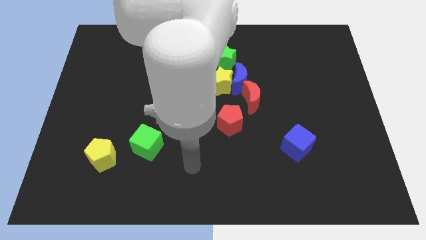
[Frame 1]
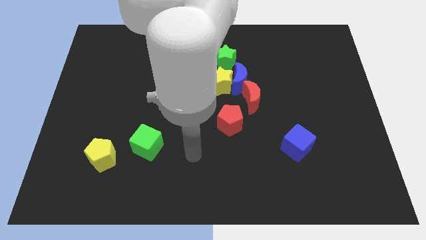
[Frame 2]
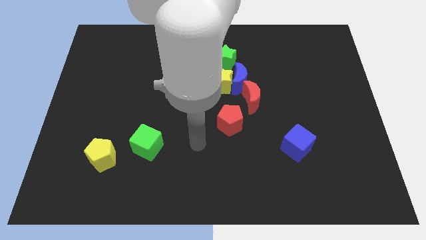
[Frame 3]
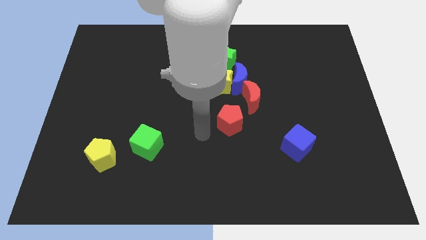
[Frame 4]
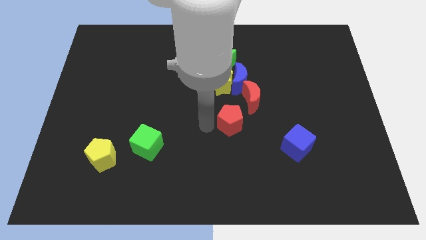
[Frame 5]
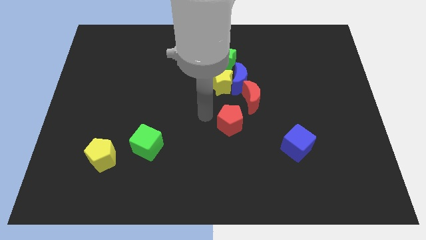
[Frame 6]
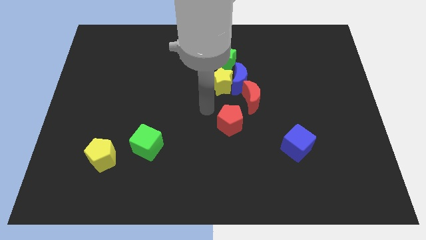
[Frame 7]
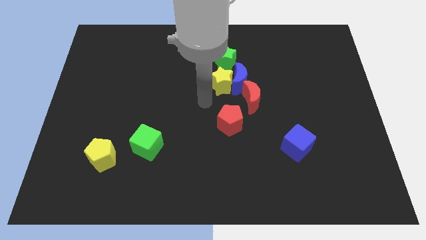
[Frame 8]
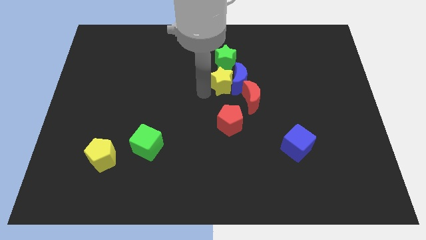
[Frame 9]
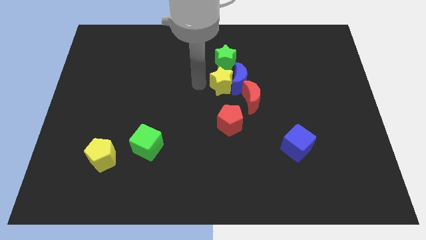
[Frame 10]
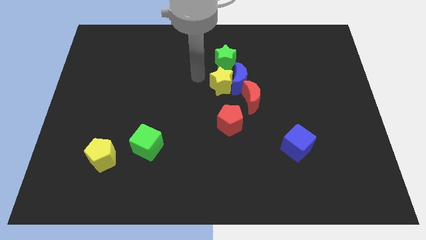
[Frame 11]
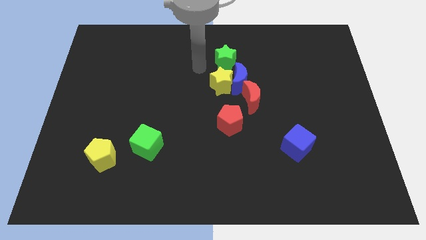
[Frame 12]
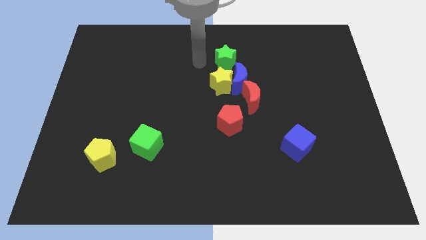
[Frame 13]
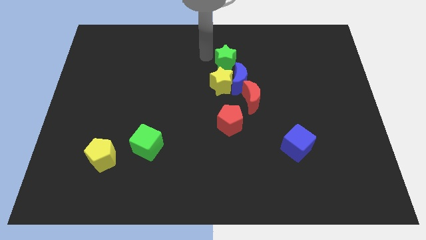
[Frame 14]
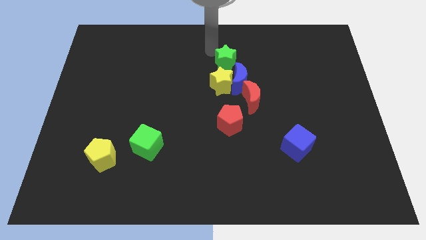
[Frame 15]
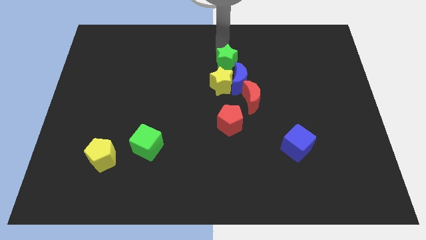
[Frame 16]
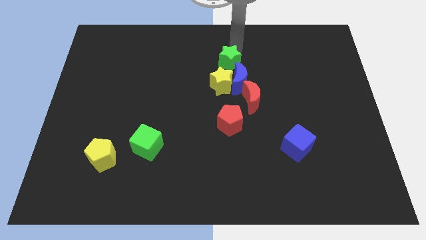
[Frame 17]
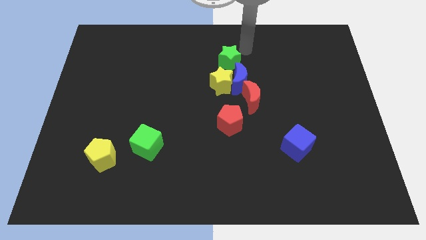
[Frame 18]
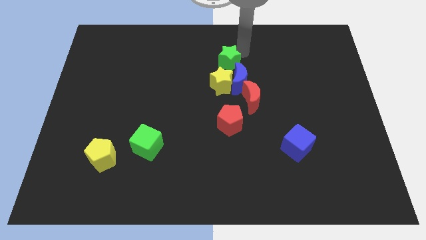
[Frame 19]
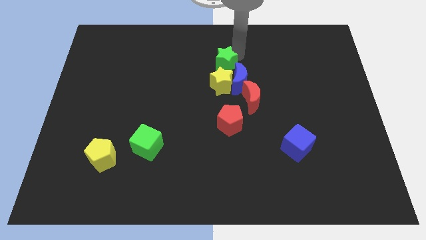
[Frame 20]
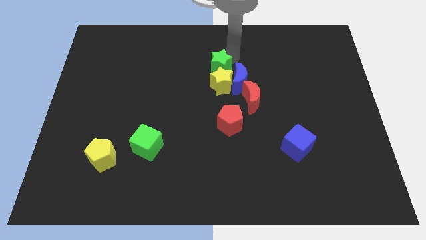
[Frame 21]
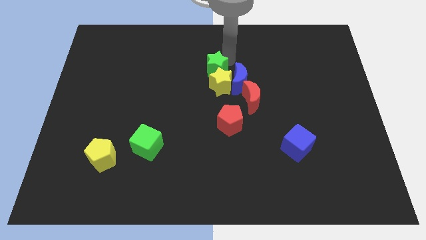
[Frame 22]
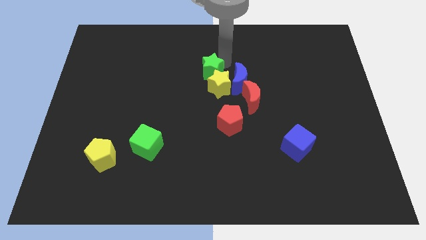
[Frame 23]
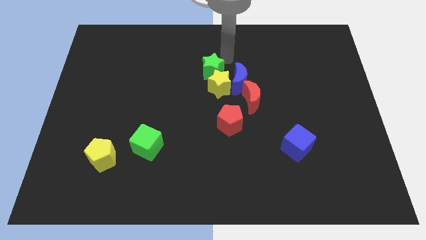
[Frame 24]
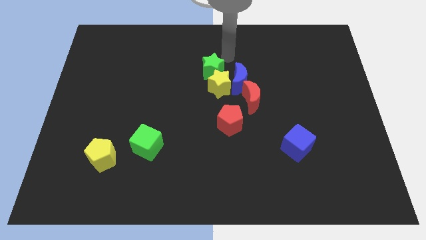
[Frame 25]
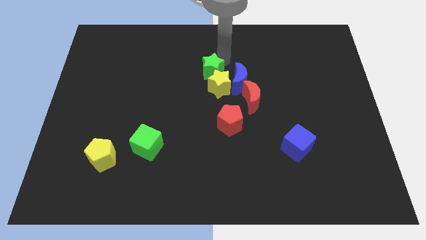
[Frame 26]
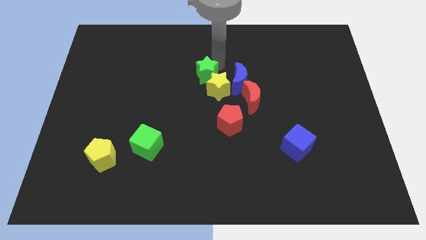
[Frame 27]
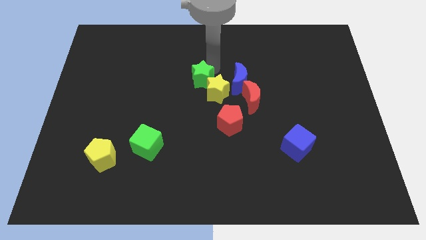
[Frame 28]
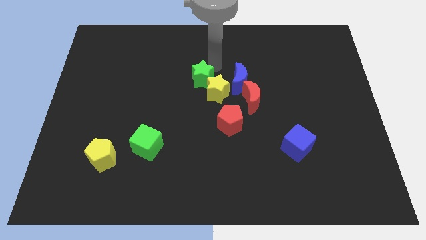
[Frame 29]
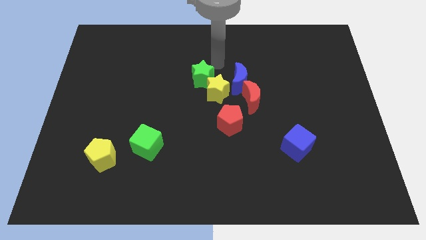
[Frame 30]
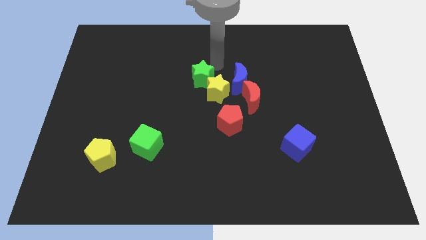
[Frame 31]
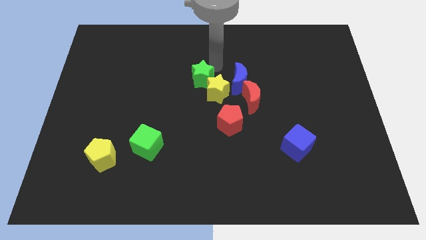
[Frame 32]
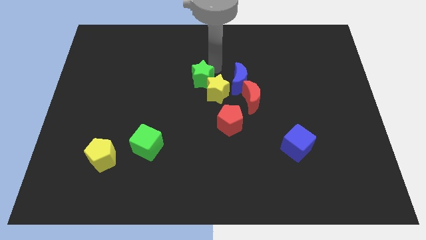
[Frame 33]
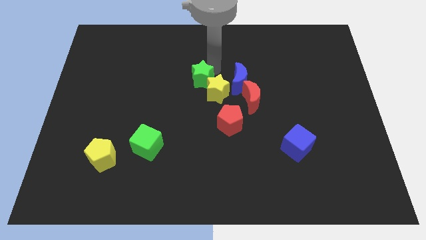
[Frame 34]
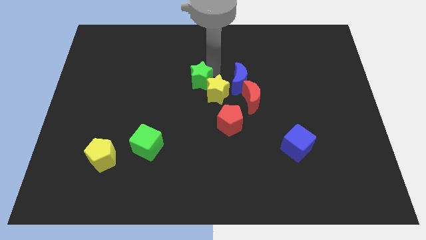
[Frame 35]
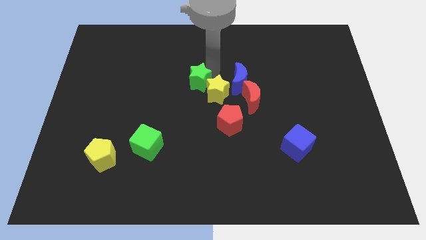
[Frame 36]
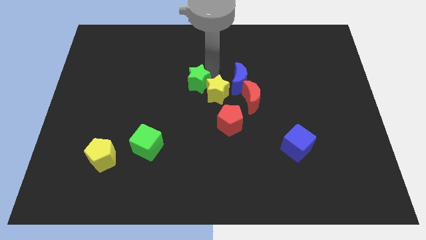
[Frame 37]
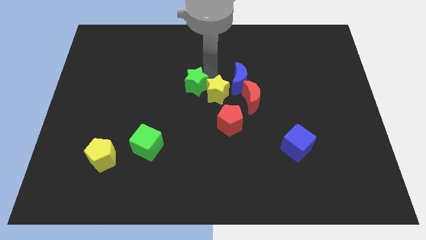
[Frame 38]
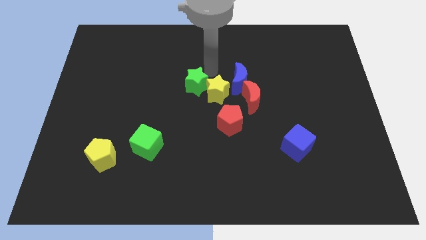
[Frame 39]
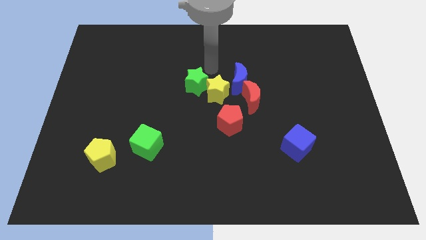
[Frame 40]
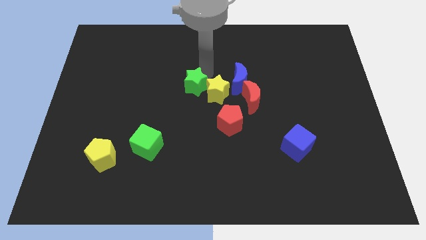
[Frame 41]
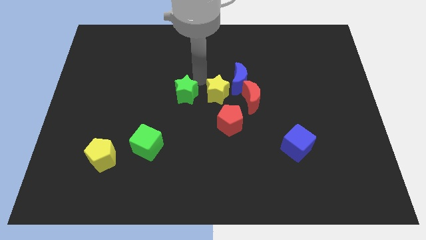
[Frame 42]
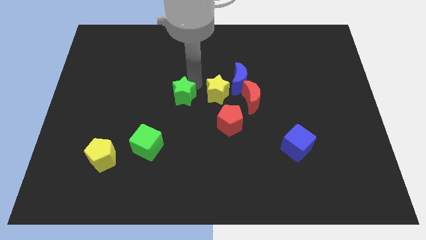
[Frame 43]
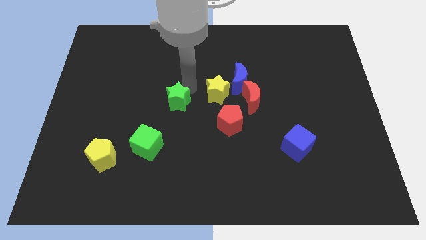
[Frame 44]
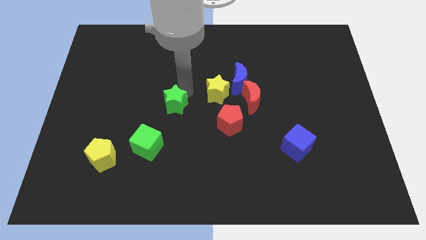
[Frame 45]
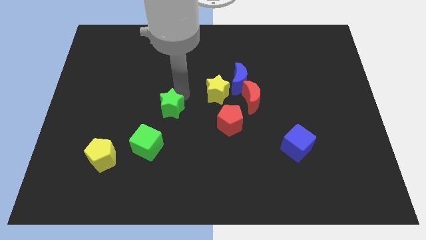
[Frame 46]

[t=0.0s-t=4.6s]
slide the green star downwards and left

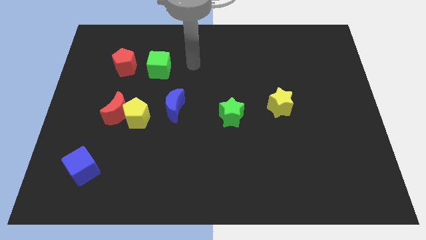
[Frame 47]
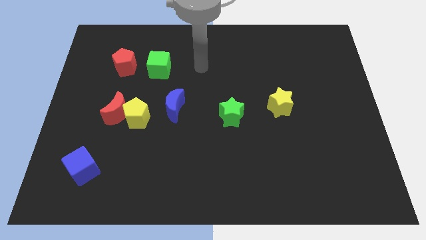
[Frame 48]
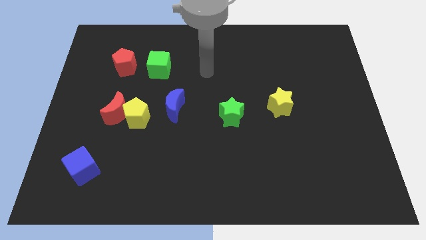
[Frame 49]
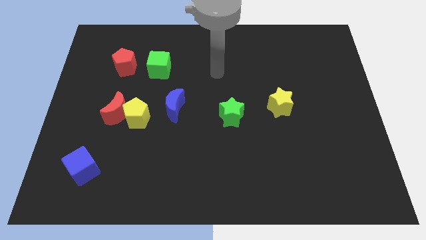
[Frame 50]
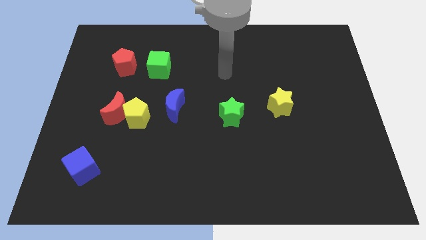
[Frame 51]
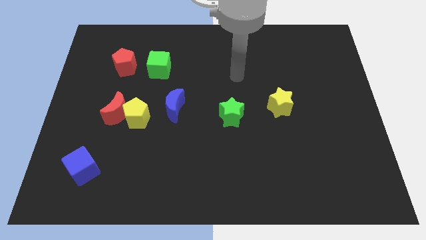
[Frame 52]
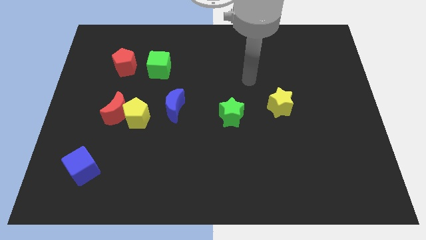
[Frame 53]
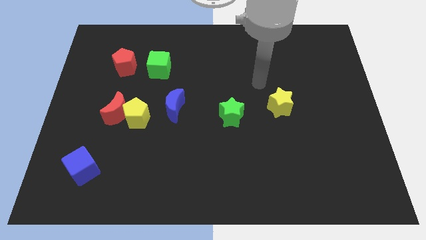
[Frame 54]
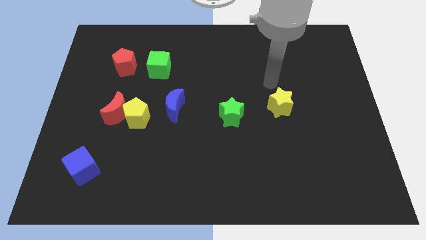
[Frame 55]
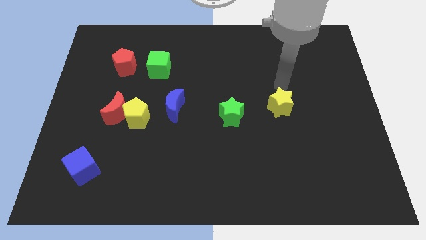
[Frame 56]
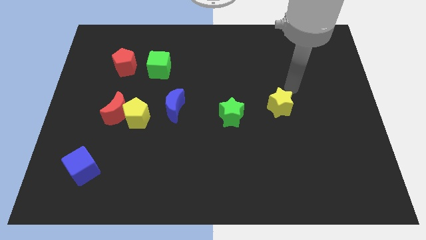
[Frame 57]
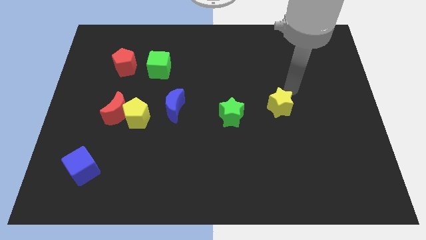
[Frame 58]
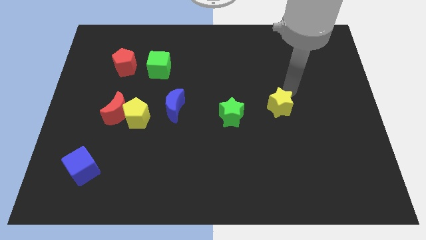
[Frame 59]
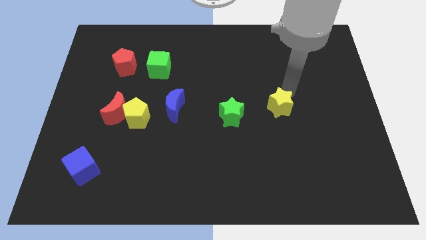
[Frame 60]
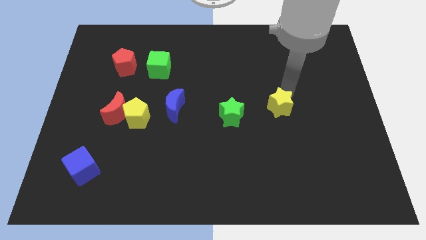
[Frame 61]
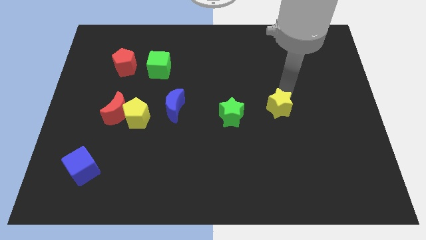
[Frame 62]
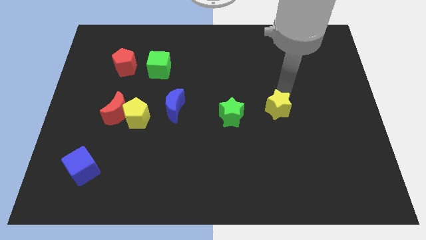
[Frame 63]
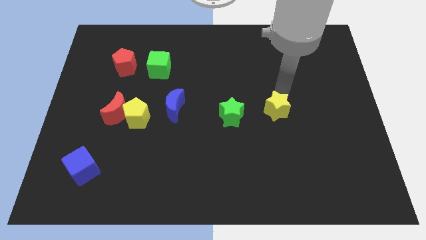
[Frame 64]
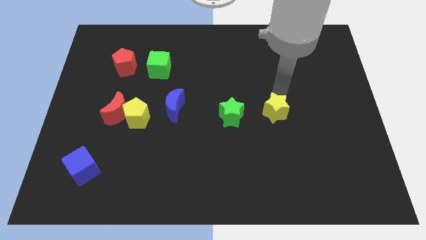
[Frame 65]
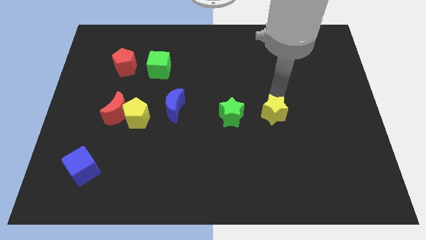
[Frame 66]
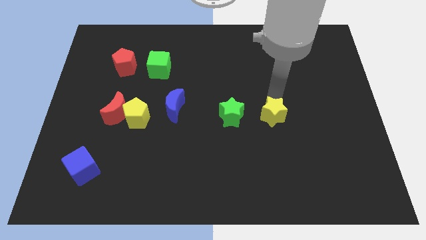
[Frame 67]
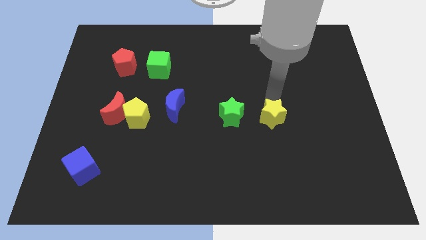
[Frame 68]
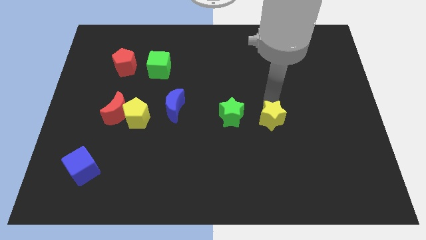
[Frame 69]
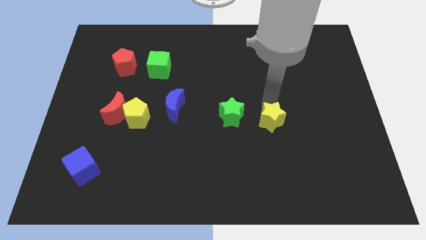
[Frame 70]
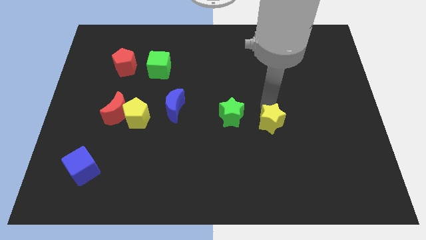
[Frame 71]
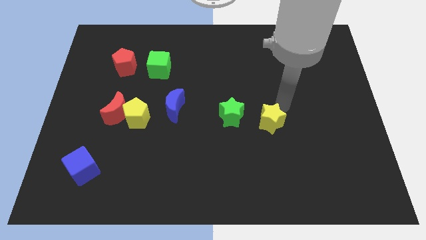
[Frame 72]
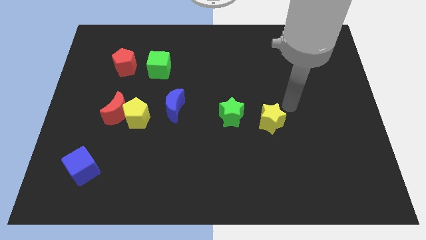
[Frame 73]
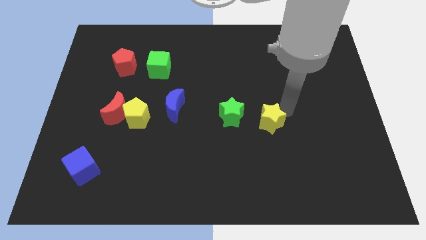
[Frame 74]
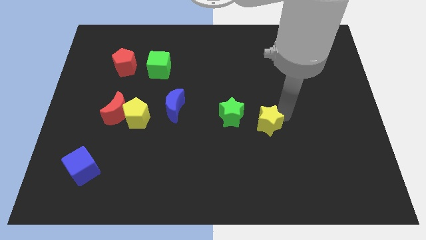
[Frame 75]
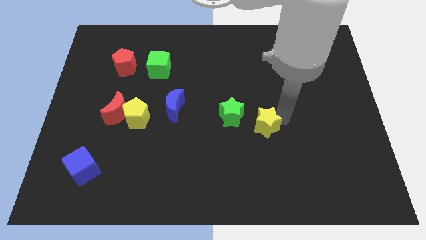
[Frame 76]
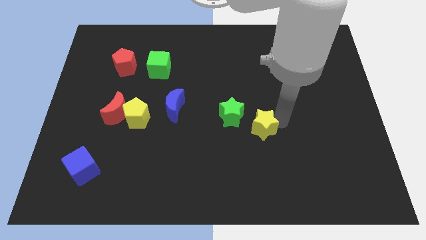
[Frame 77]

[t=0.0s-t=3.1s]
slightly push the yellow star downwards and left diagonally

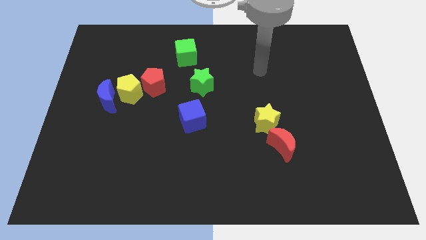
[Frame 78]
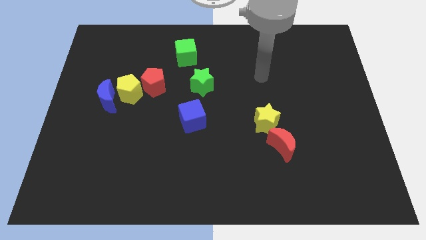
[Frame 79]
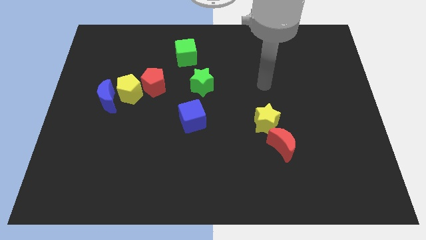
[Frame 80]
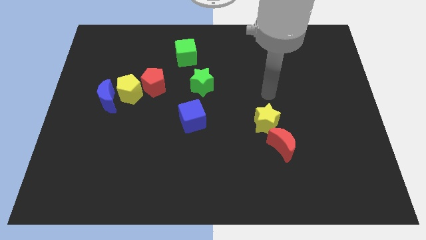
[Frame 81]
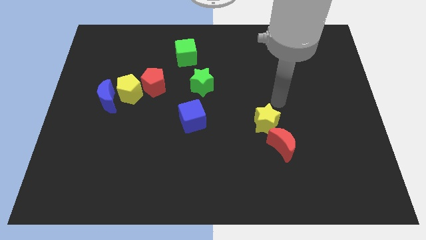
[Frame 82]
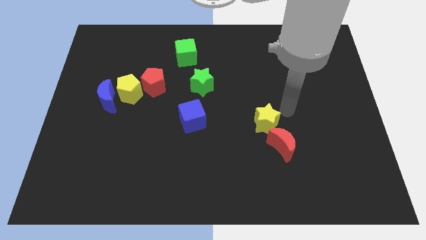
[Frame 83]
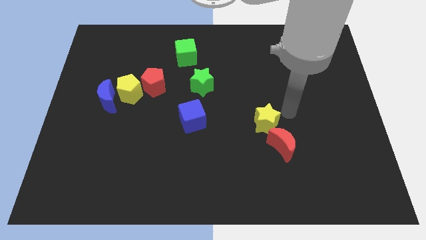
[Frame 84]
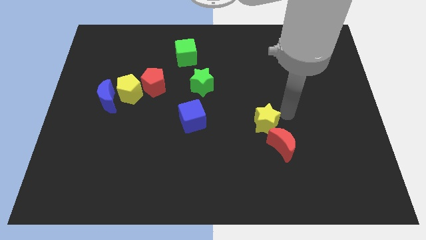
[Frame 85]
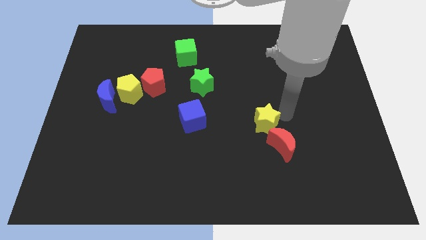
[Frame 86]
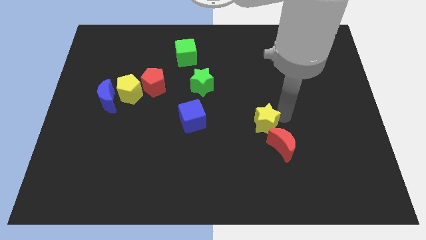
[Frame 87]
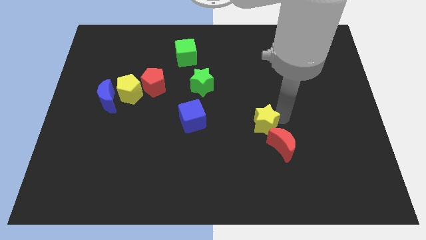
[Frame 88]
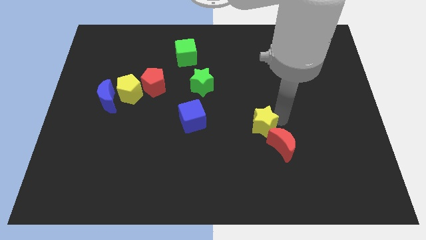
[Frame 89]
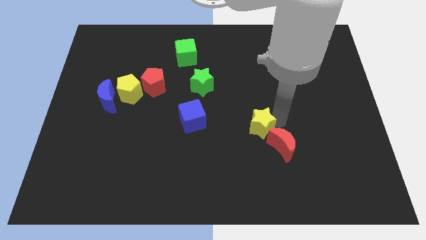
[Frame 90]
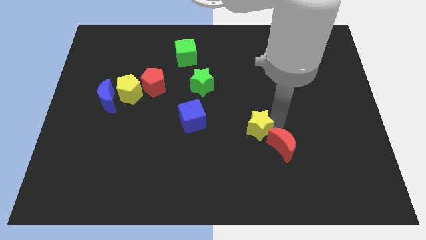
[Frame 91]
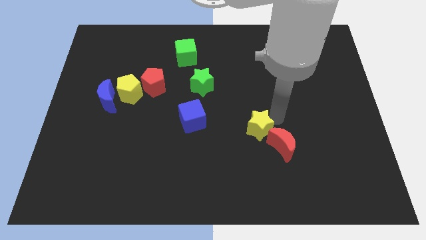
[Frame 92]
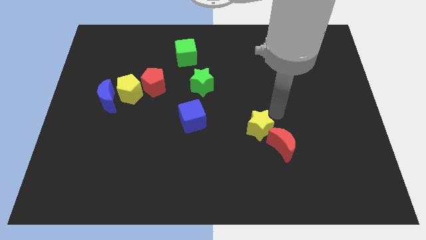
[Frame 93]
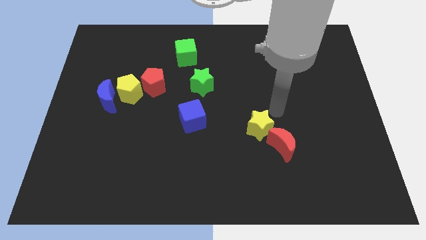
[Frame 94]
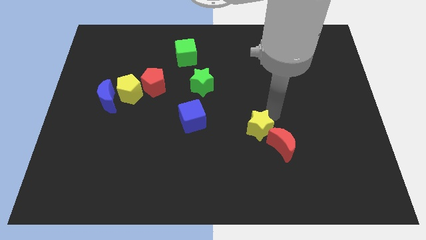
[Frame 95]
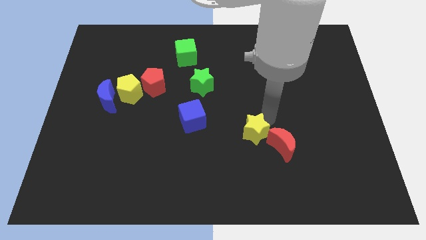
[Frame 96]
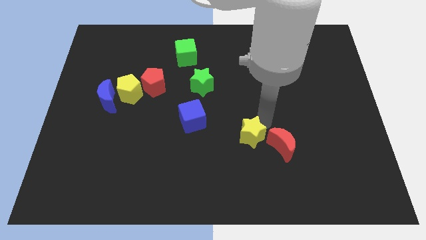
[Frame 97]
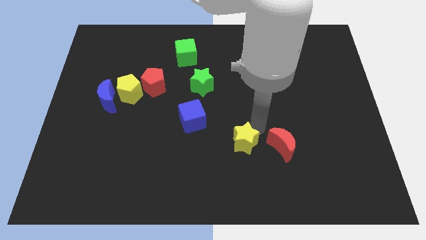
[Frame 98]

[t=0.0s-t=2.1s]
move the yellow star diagonally down and to the left slightly
